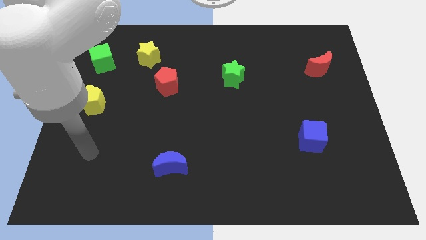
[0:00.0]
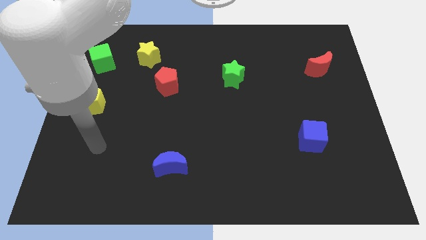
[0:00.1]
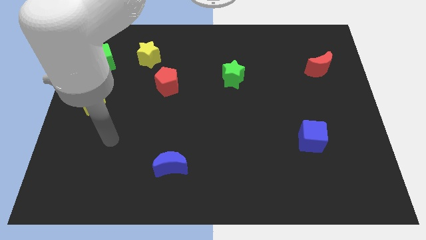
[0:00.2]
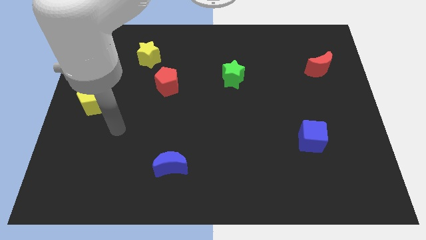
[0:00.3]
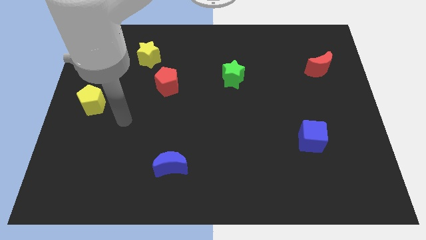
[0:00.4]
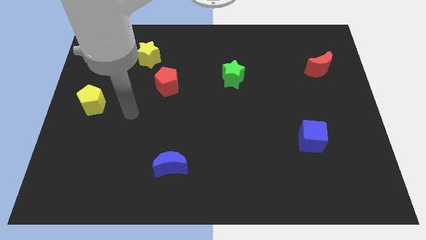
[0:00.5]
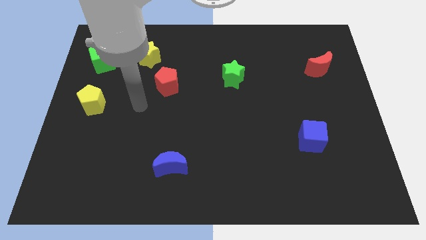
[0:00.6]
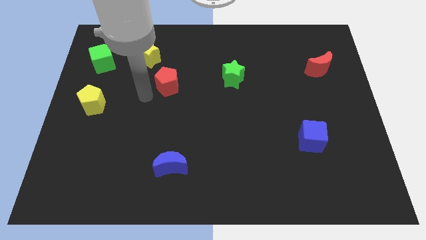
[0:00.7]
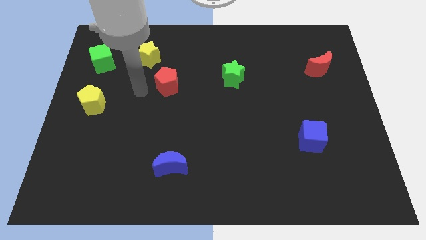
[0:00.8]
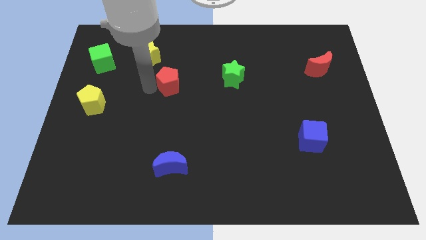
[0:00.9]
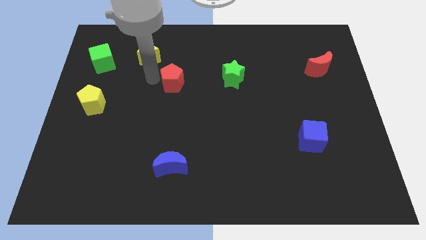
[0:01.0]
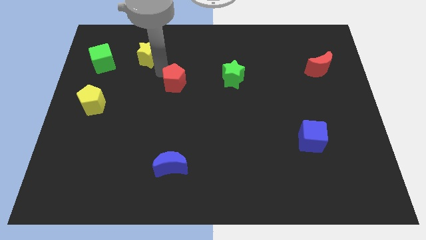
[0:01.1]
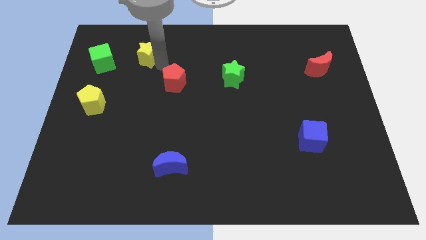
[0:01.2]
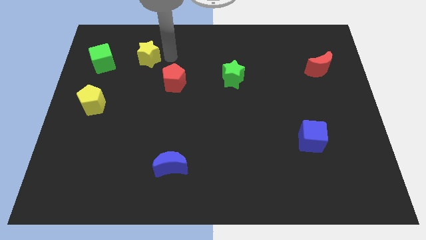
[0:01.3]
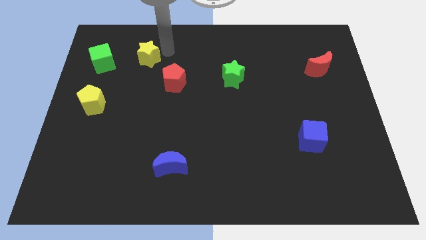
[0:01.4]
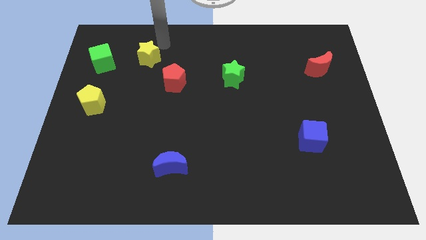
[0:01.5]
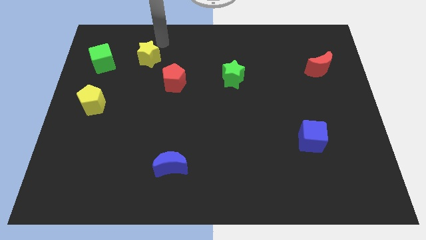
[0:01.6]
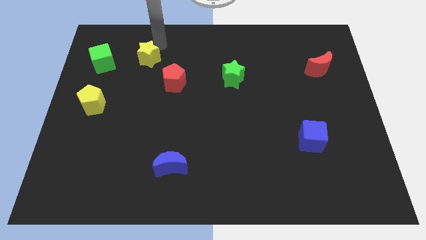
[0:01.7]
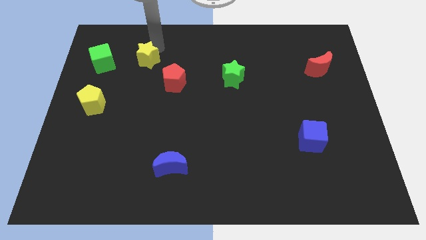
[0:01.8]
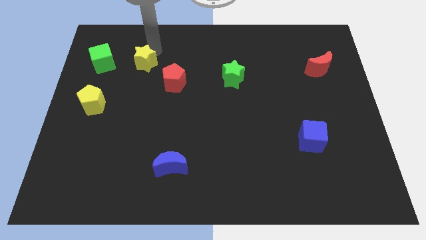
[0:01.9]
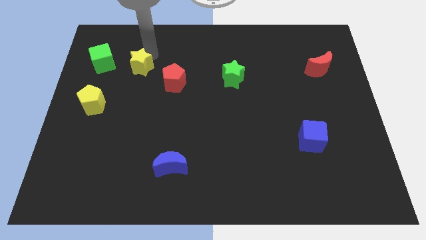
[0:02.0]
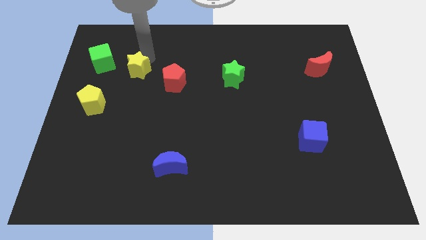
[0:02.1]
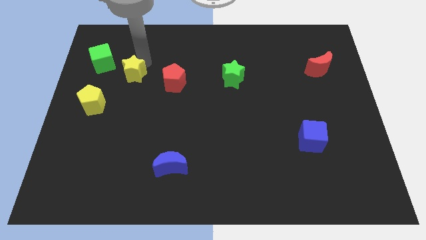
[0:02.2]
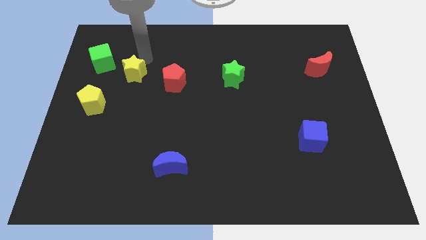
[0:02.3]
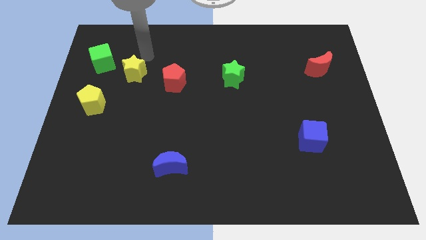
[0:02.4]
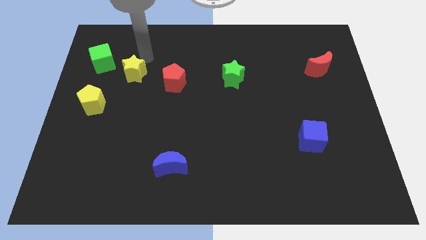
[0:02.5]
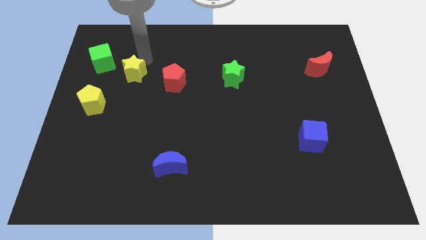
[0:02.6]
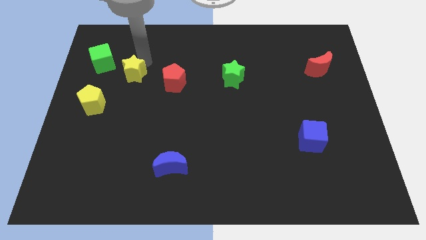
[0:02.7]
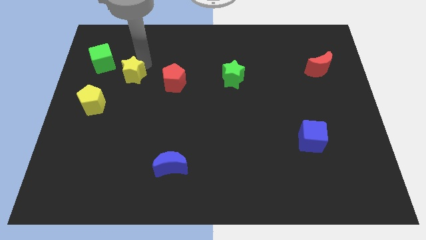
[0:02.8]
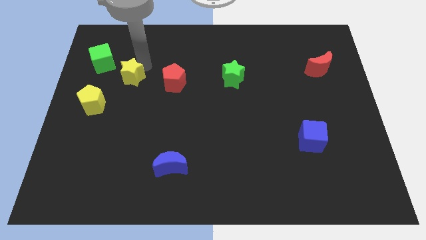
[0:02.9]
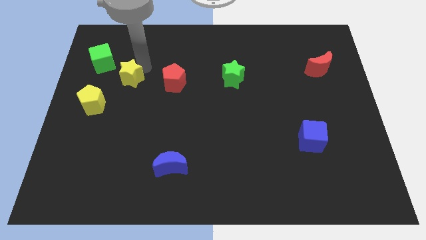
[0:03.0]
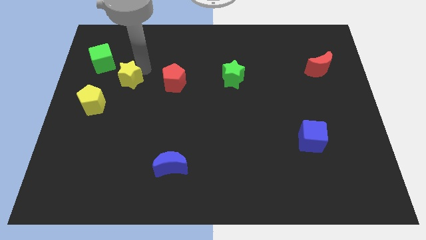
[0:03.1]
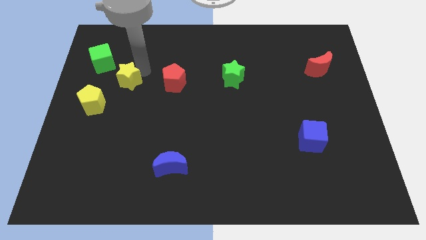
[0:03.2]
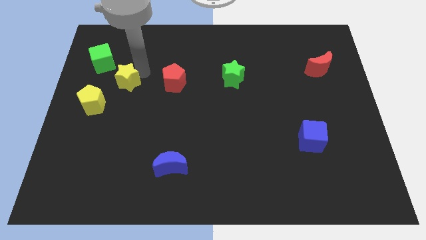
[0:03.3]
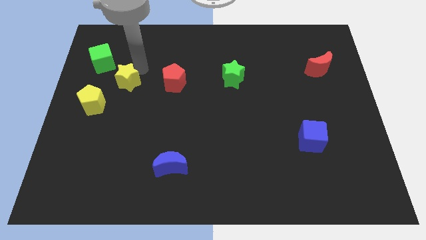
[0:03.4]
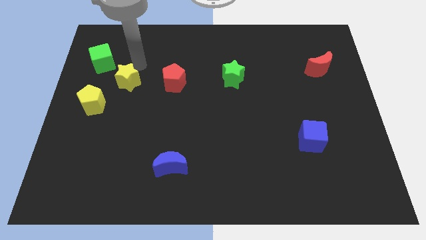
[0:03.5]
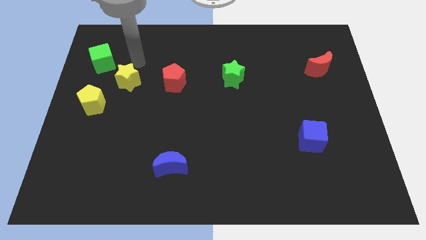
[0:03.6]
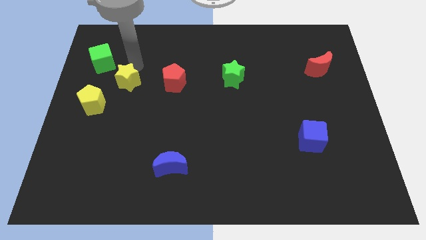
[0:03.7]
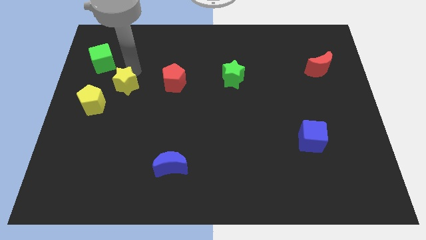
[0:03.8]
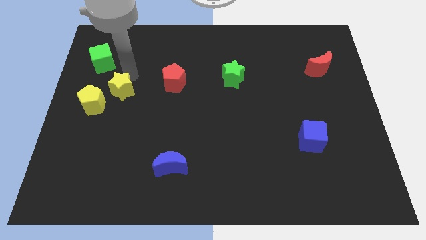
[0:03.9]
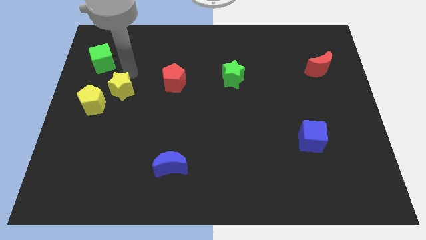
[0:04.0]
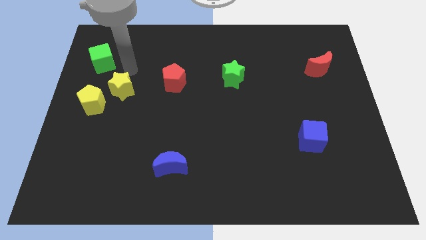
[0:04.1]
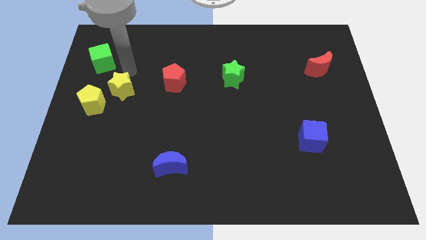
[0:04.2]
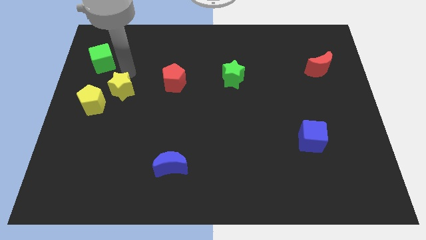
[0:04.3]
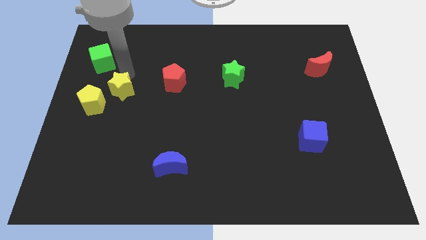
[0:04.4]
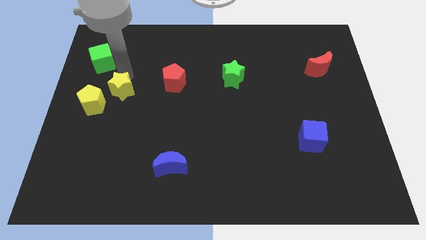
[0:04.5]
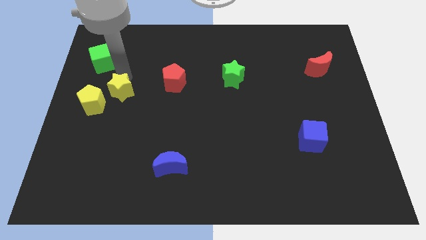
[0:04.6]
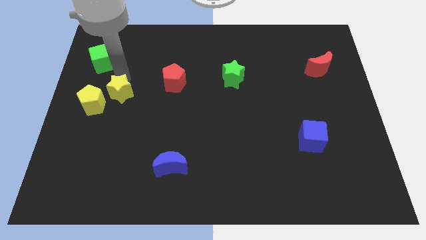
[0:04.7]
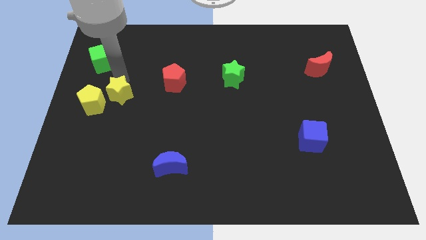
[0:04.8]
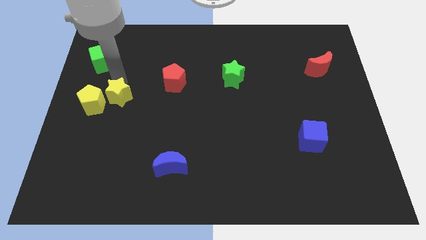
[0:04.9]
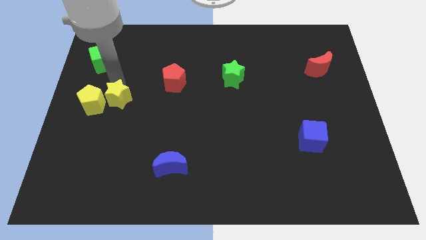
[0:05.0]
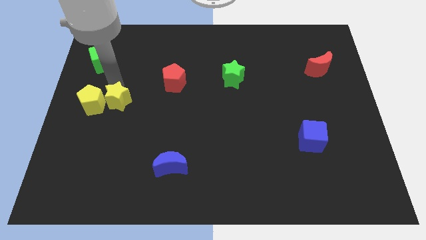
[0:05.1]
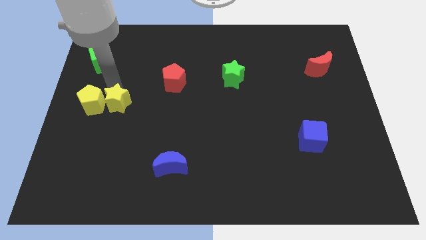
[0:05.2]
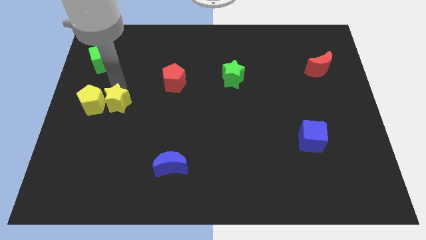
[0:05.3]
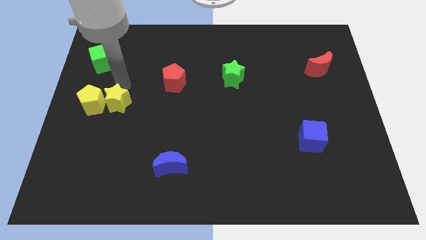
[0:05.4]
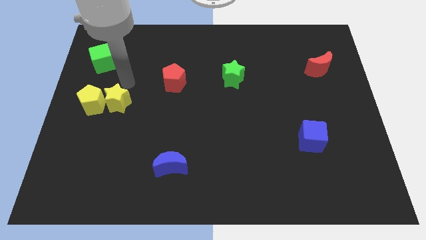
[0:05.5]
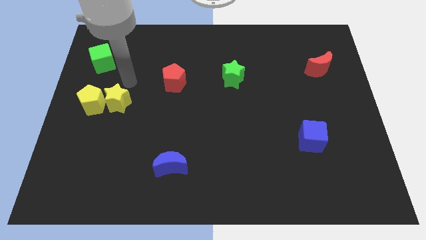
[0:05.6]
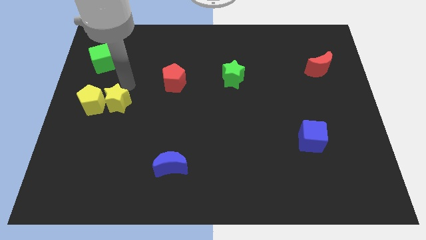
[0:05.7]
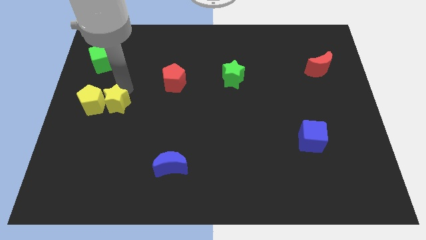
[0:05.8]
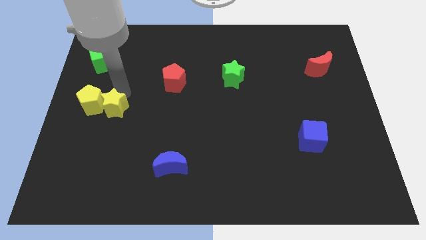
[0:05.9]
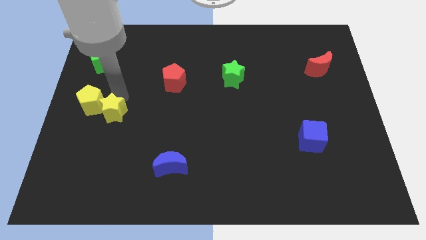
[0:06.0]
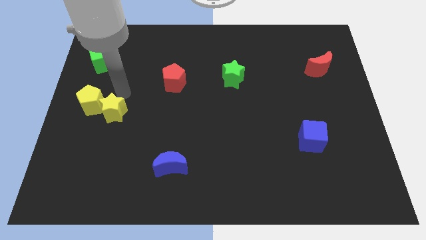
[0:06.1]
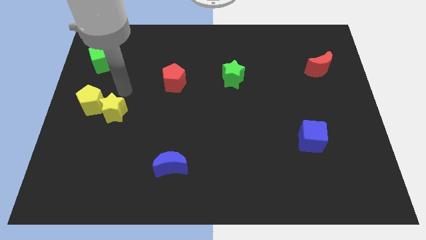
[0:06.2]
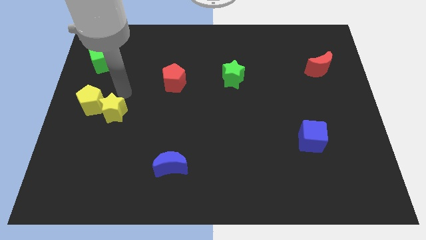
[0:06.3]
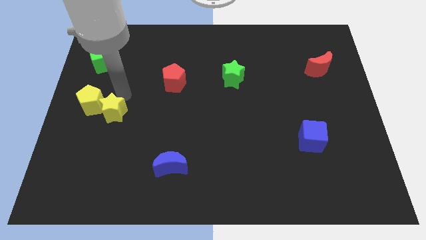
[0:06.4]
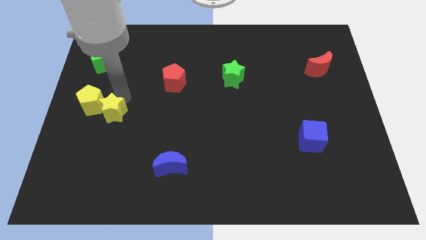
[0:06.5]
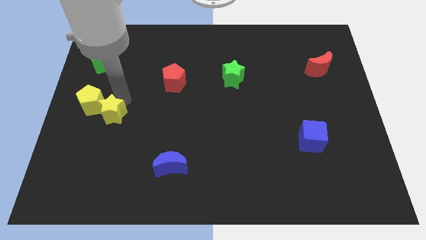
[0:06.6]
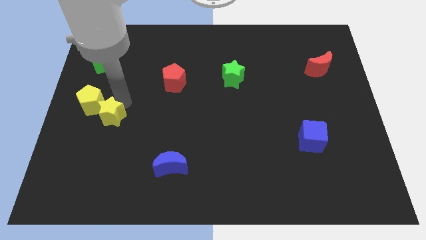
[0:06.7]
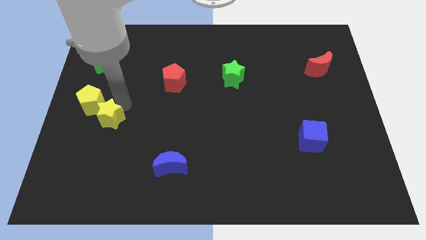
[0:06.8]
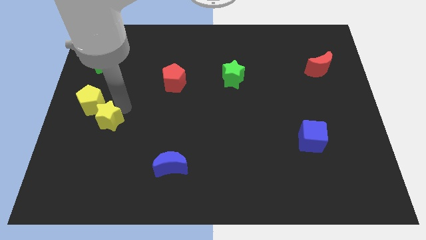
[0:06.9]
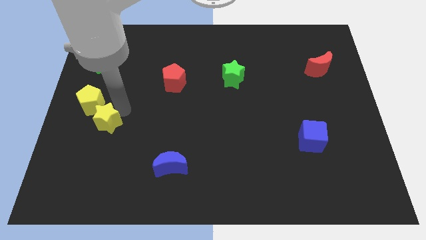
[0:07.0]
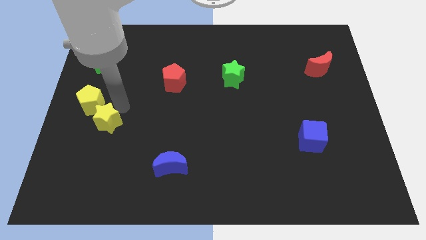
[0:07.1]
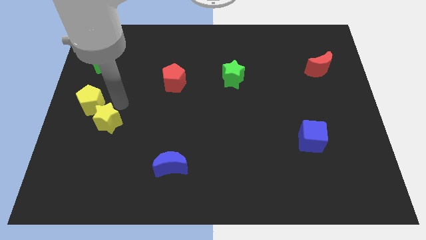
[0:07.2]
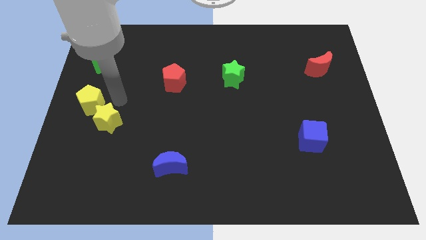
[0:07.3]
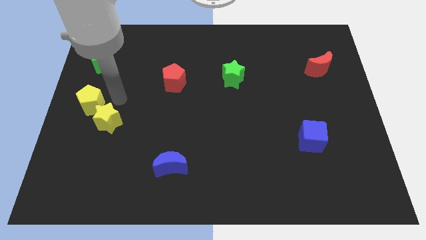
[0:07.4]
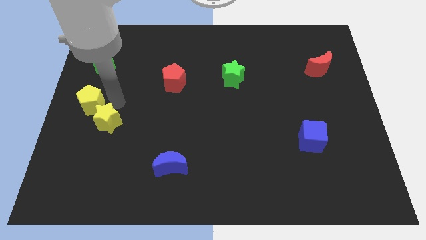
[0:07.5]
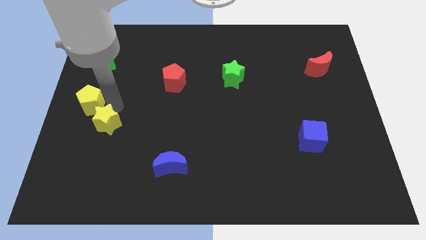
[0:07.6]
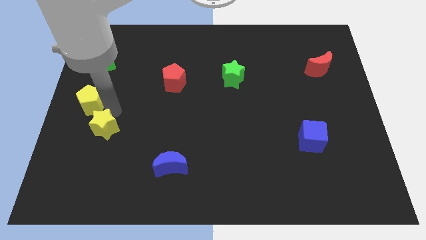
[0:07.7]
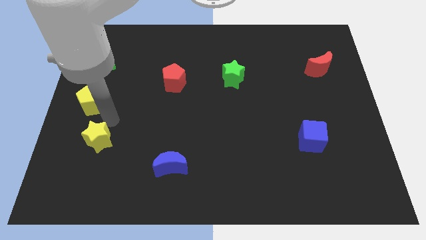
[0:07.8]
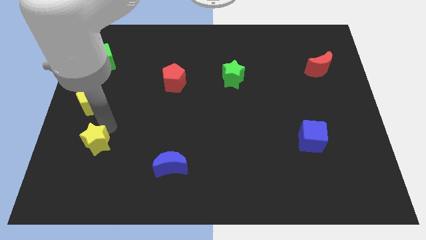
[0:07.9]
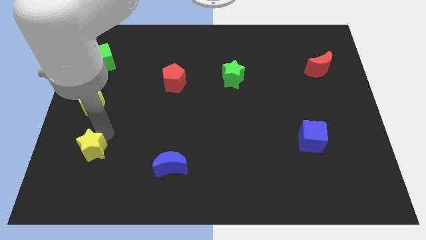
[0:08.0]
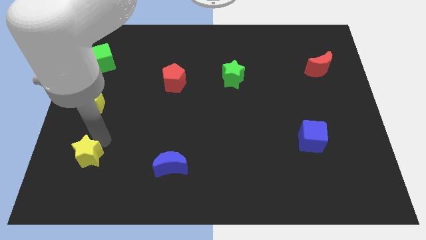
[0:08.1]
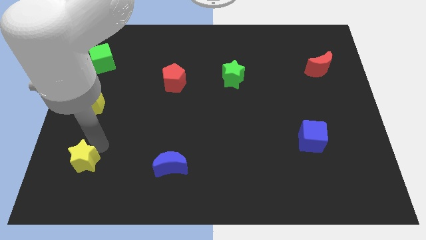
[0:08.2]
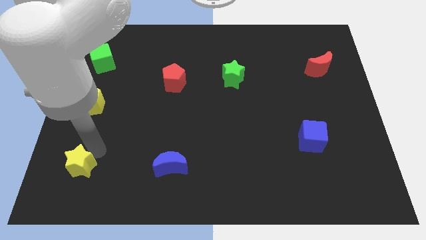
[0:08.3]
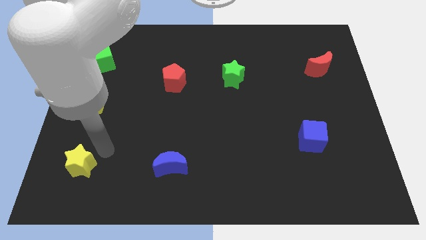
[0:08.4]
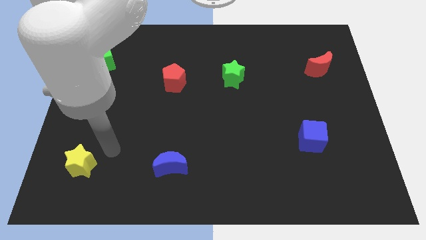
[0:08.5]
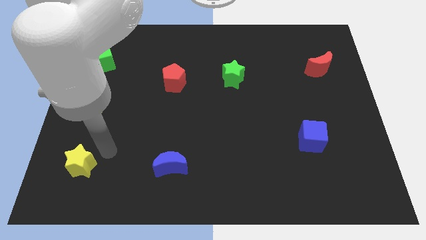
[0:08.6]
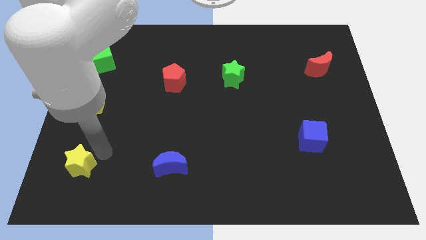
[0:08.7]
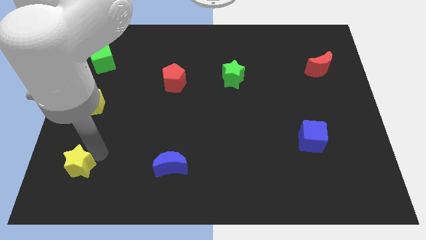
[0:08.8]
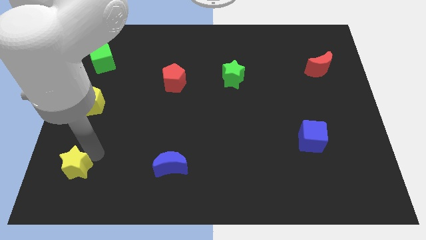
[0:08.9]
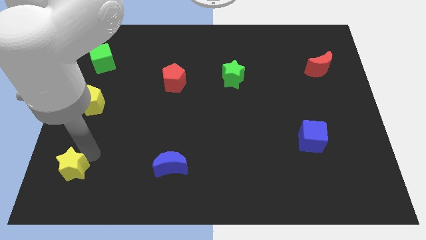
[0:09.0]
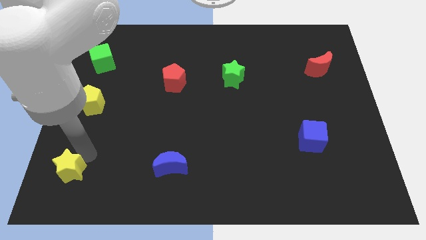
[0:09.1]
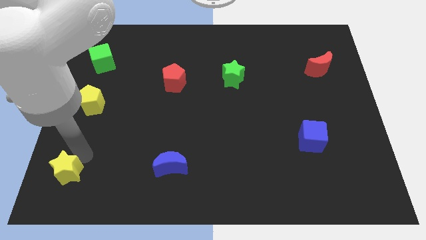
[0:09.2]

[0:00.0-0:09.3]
push the yellow star to the bottom left
